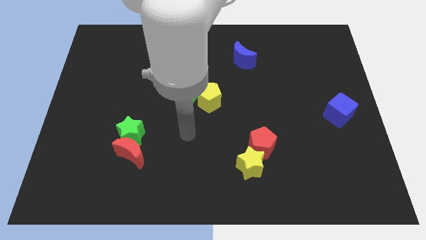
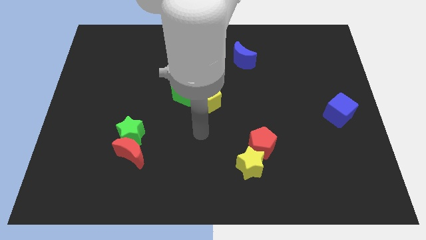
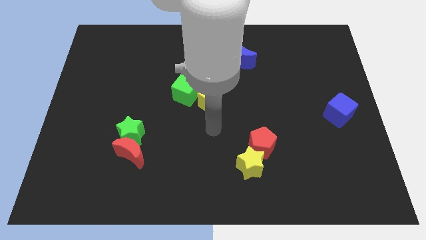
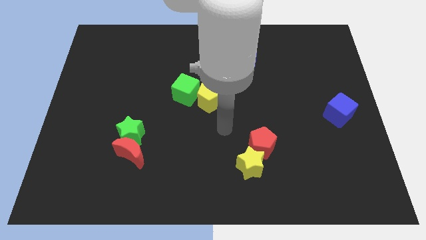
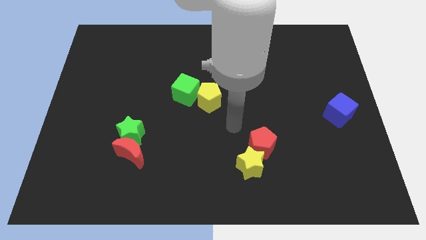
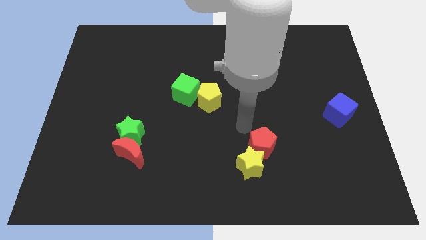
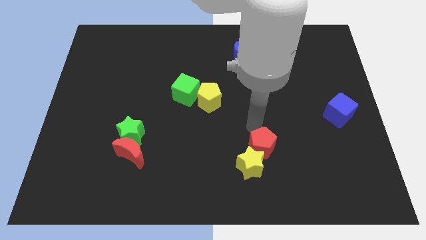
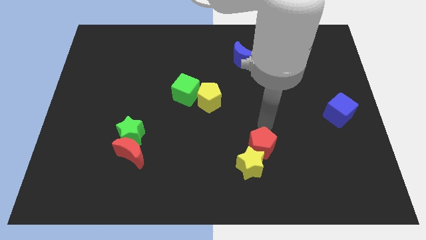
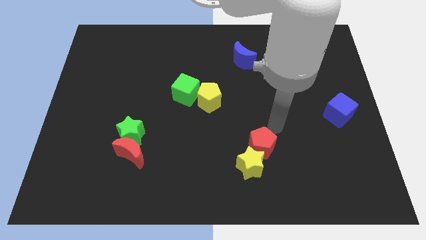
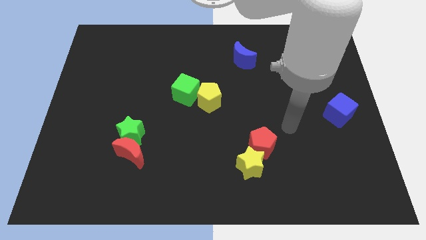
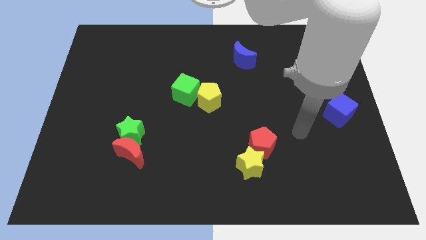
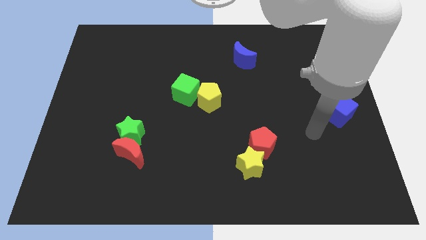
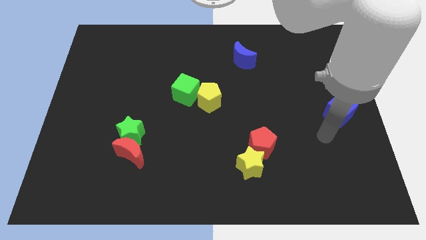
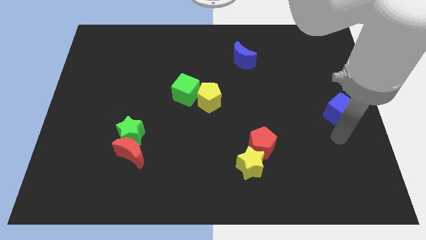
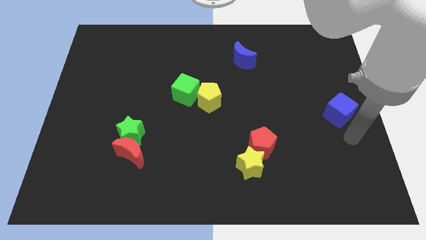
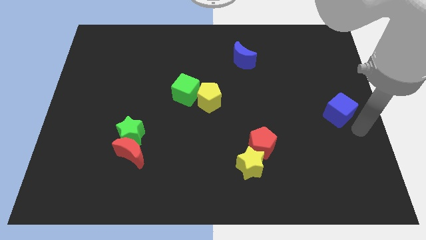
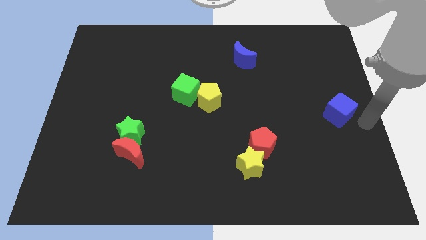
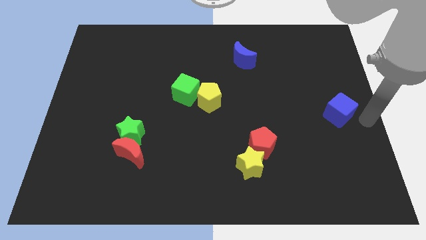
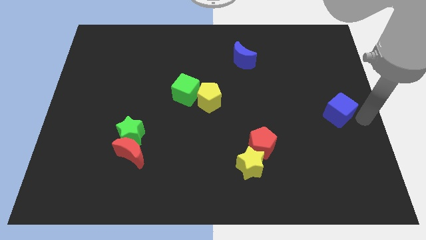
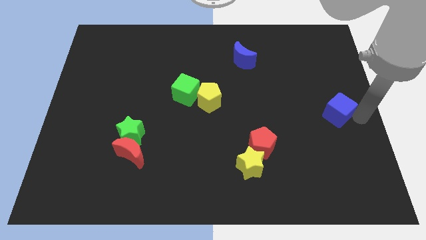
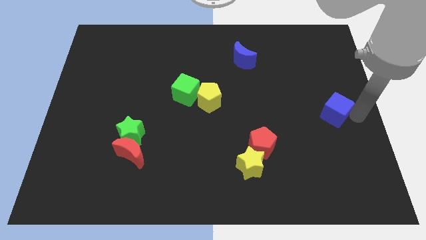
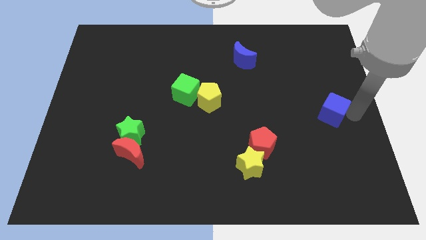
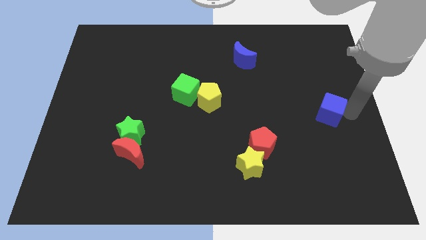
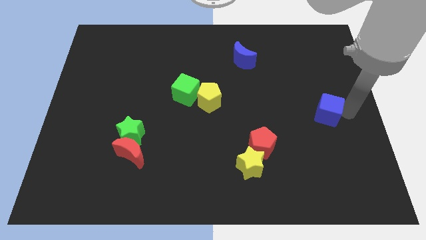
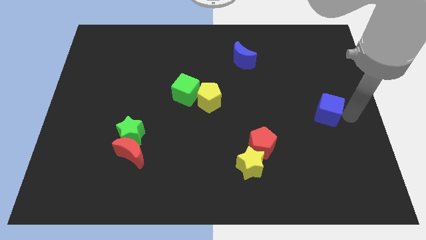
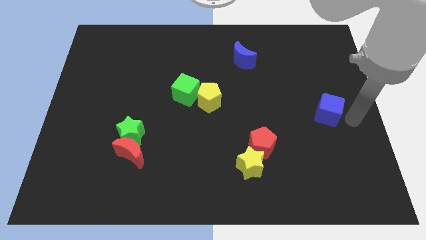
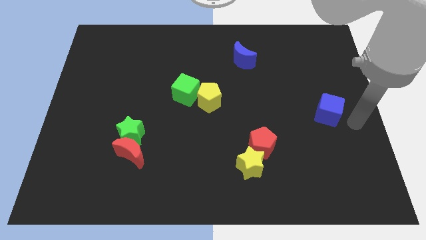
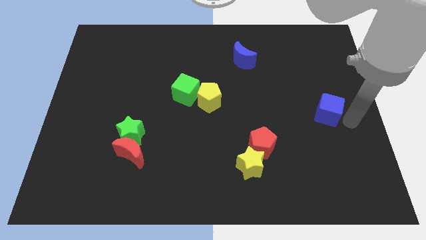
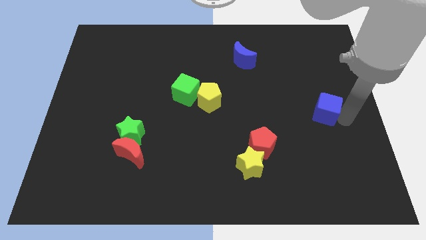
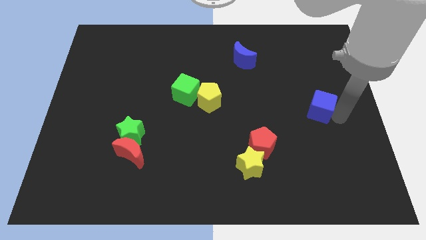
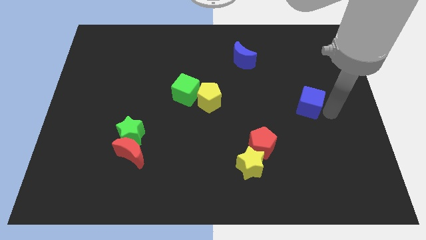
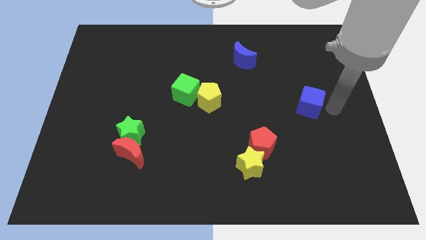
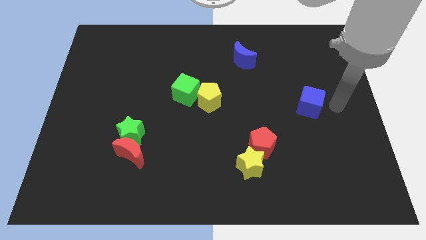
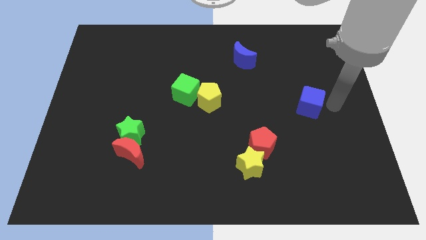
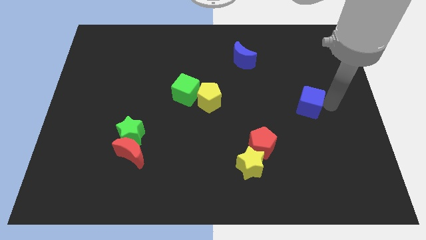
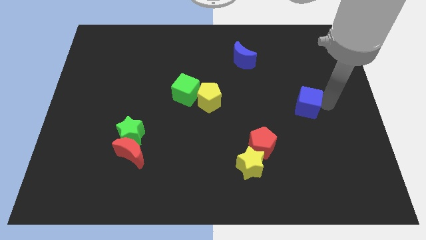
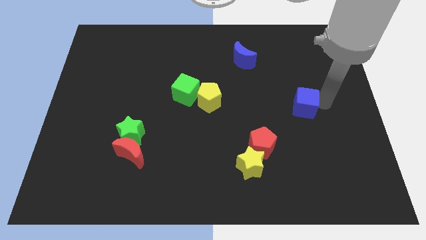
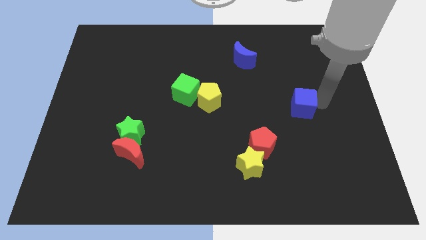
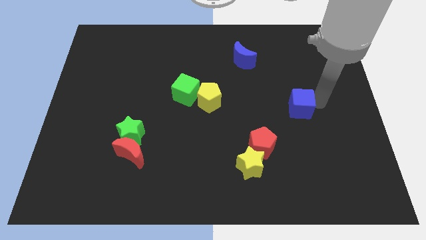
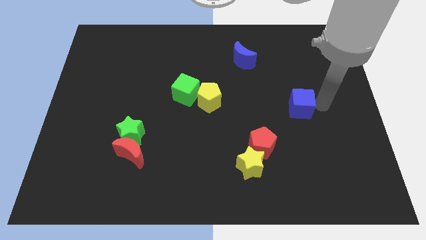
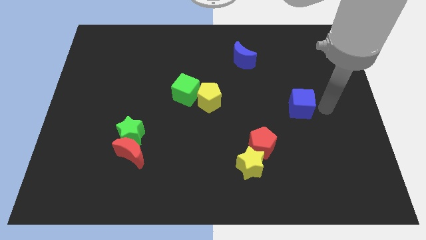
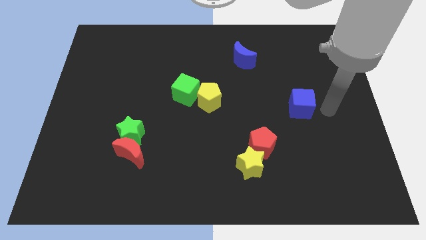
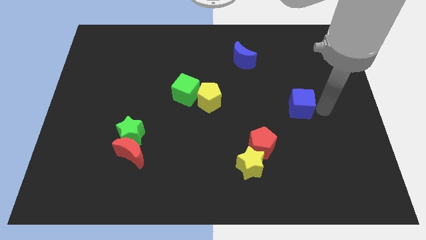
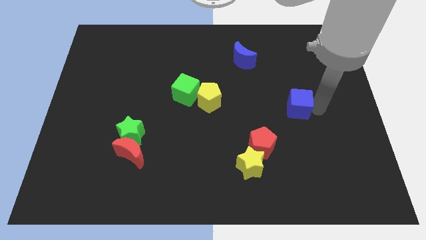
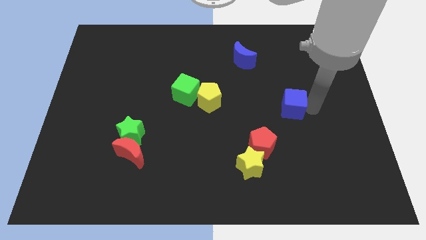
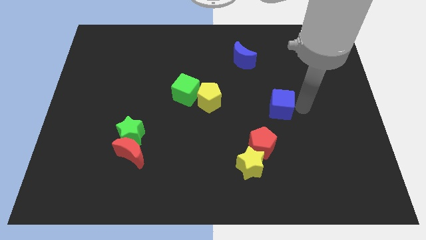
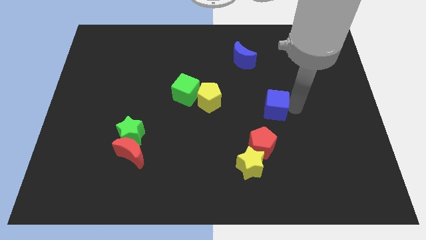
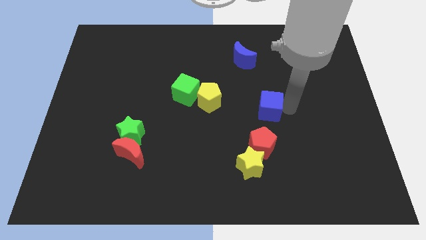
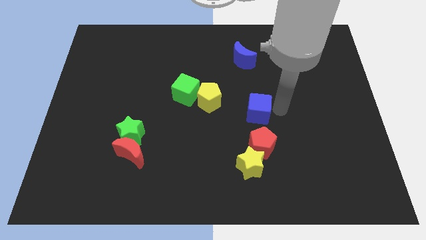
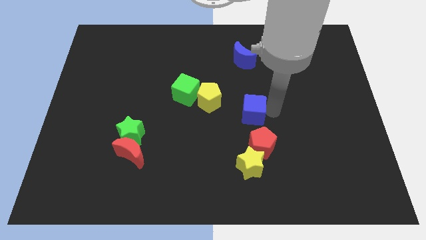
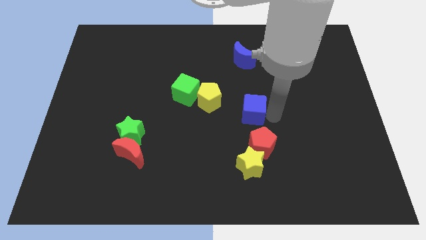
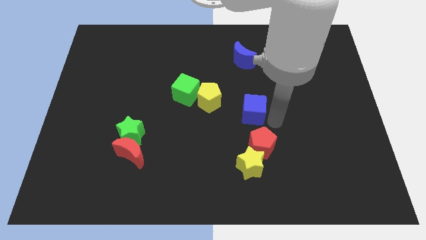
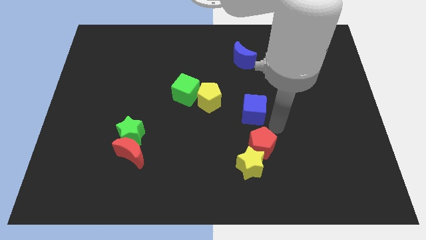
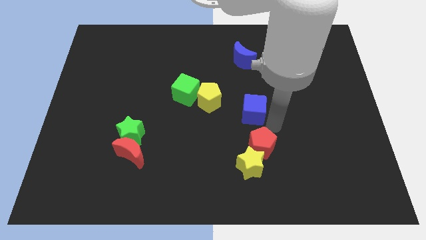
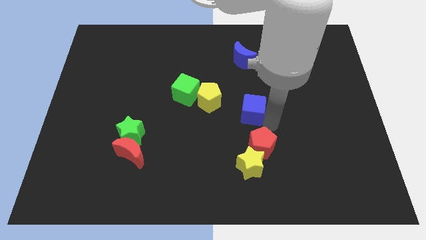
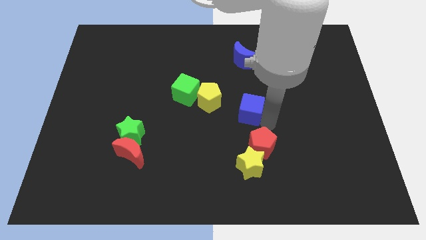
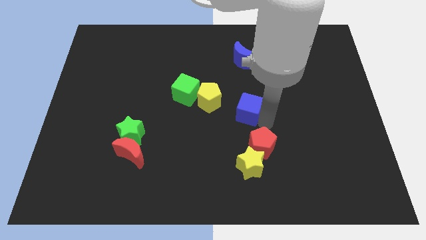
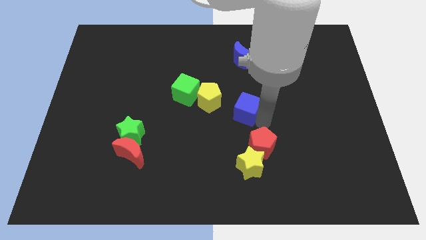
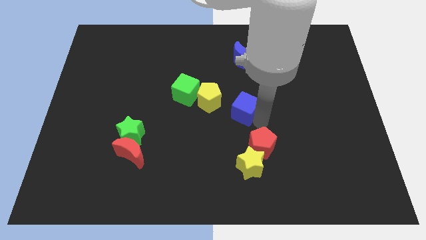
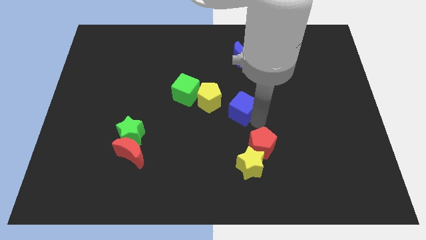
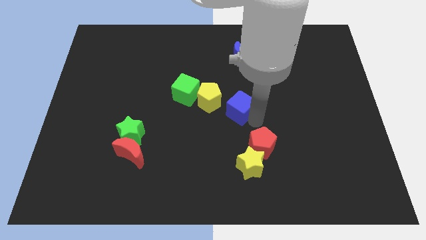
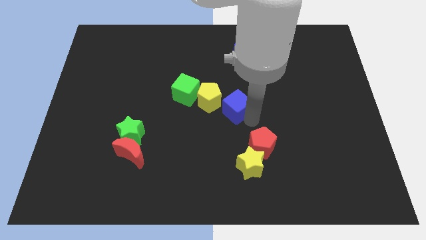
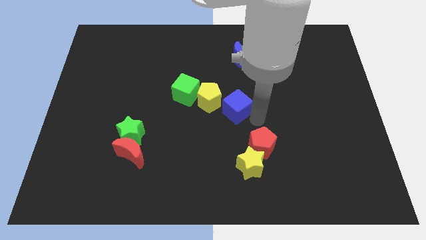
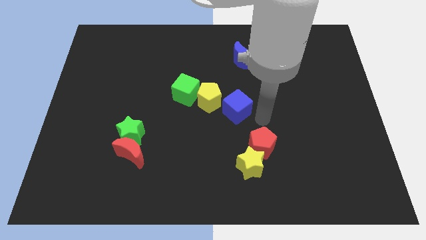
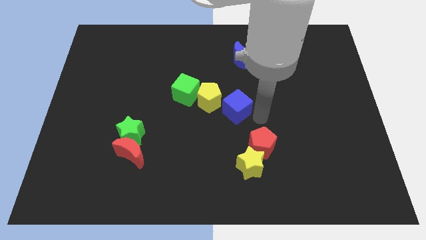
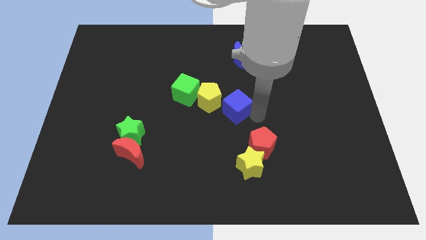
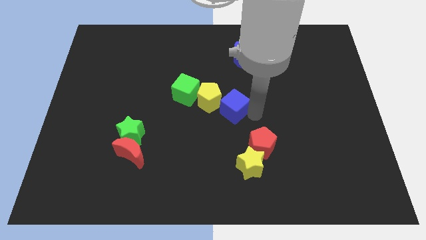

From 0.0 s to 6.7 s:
put the blue cube towards the yellow pentagon

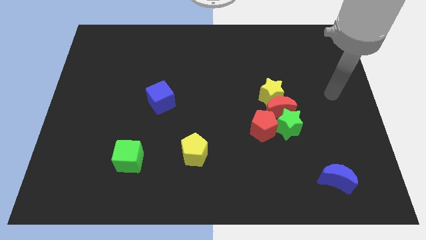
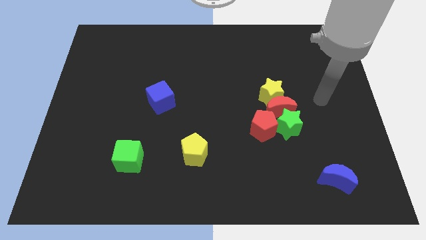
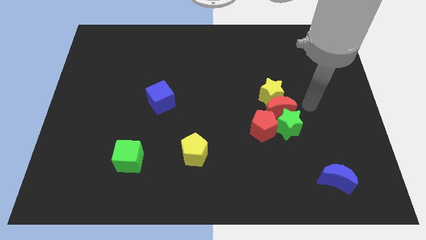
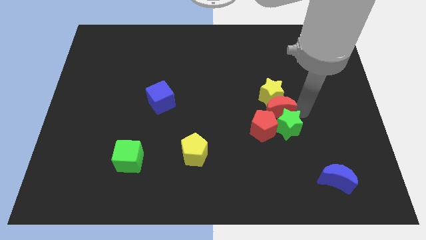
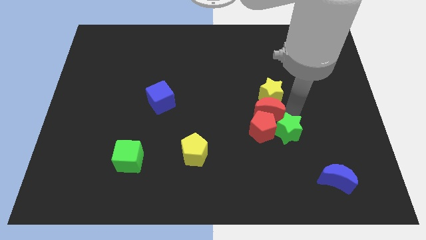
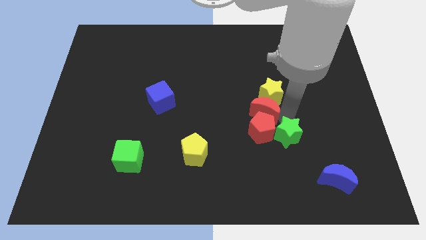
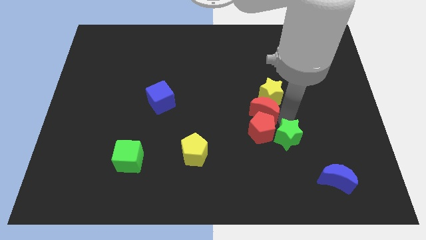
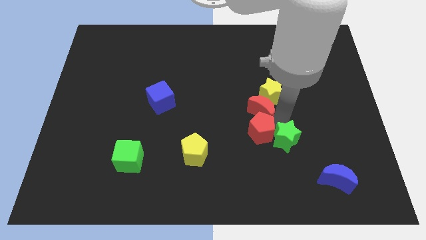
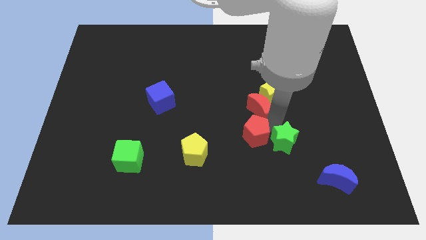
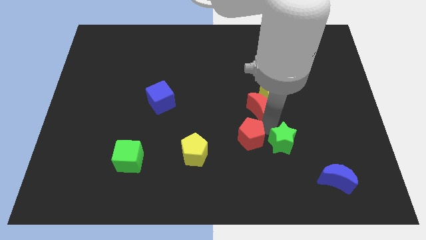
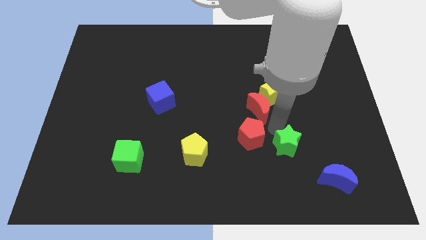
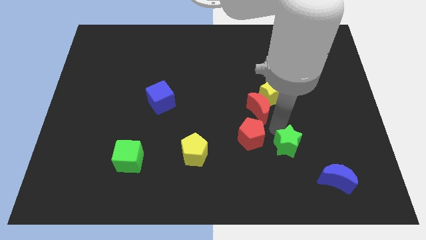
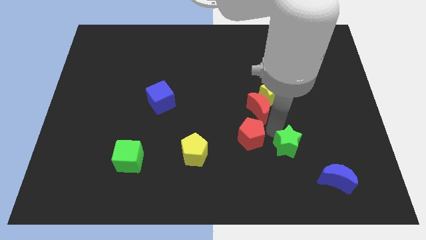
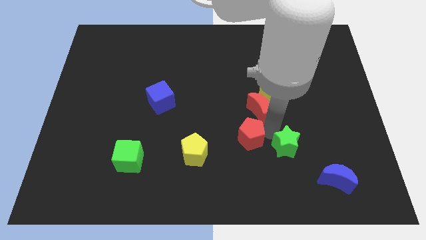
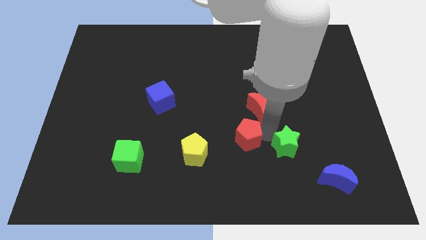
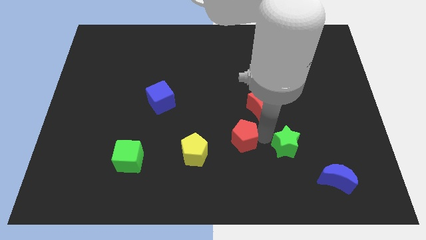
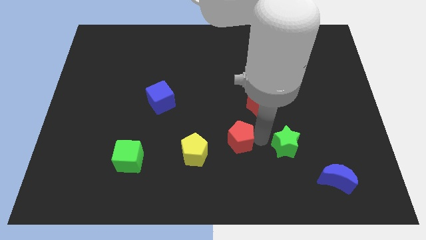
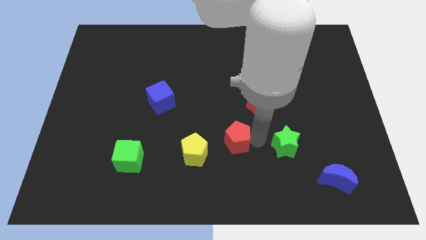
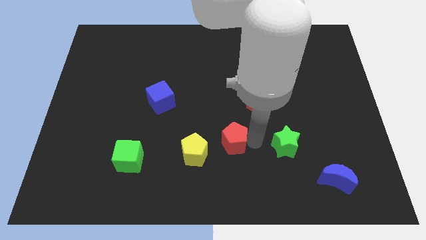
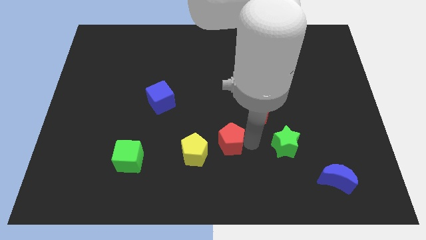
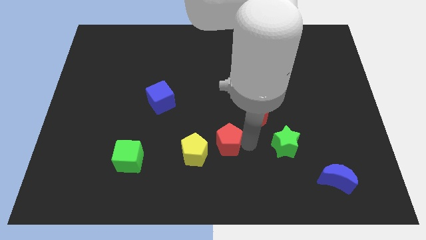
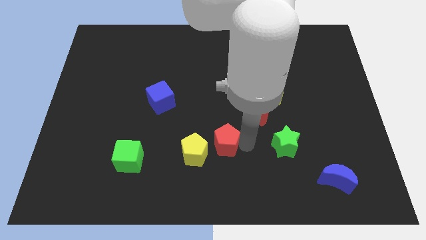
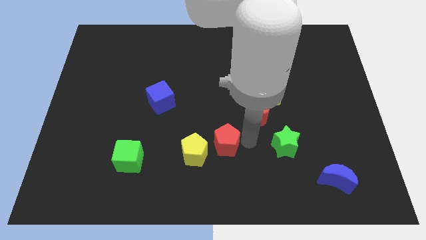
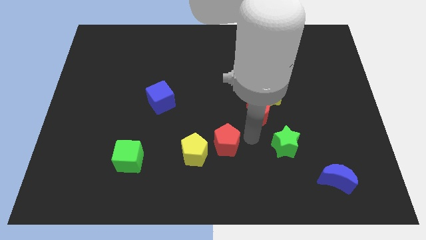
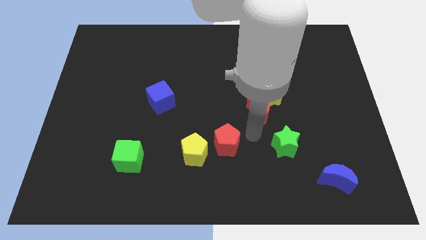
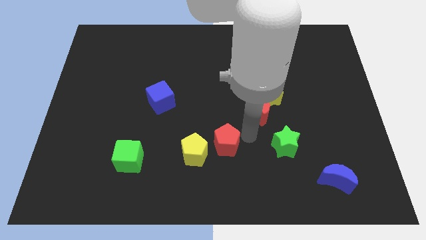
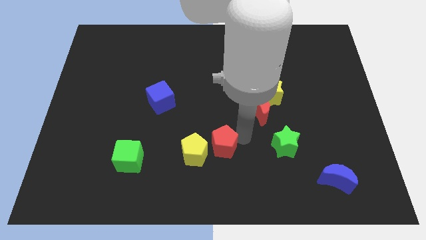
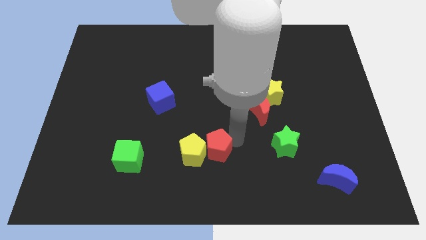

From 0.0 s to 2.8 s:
move the red pentagon to the yellow pentagon
